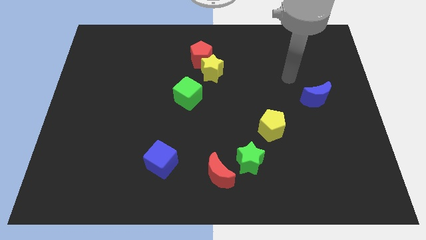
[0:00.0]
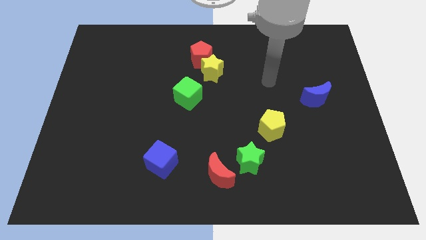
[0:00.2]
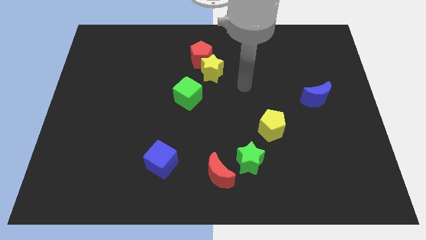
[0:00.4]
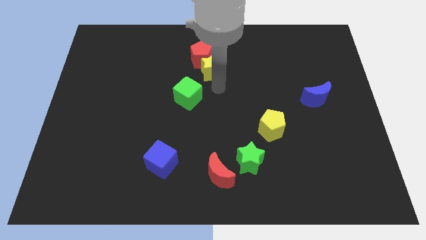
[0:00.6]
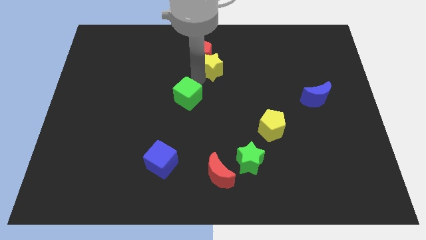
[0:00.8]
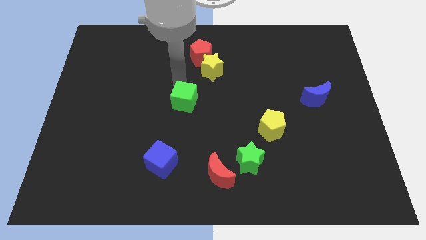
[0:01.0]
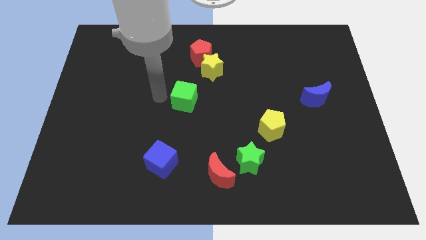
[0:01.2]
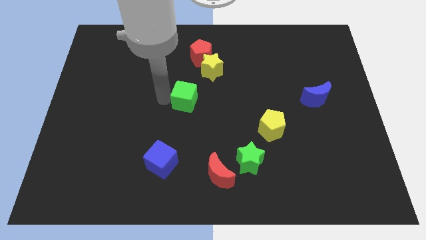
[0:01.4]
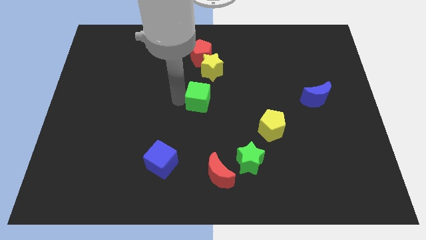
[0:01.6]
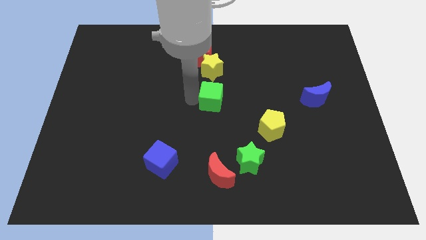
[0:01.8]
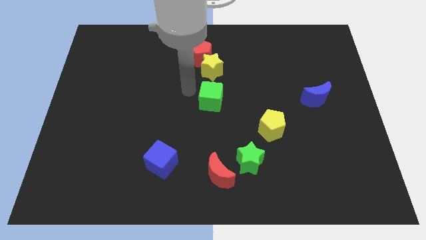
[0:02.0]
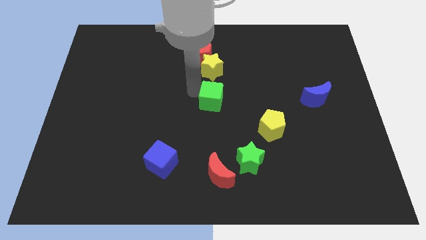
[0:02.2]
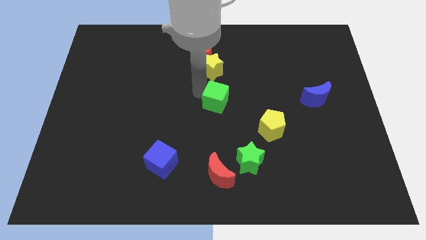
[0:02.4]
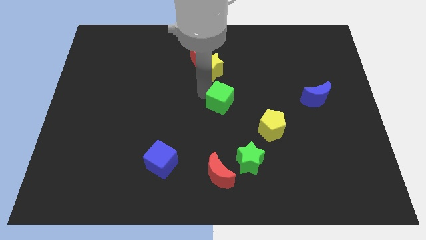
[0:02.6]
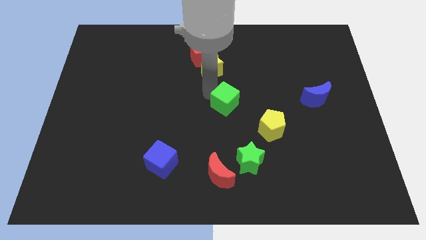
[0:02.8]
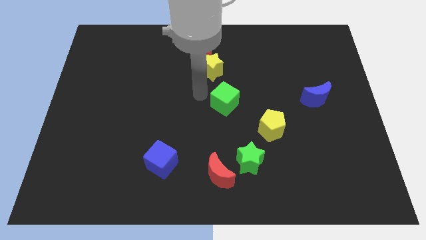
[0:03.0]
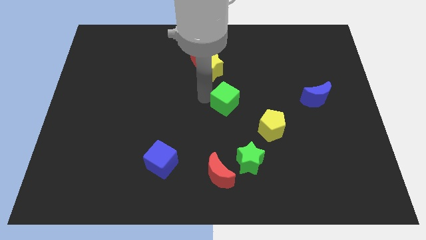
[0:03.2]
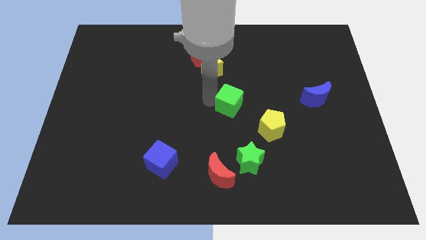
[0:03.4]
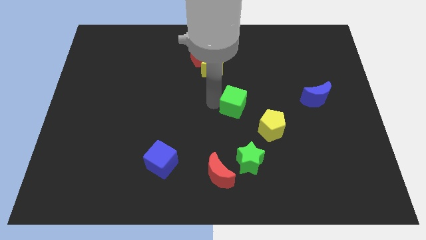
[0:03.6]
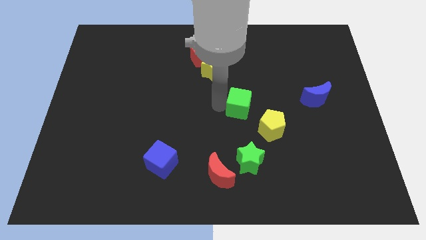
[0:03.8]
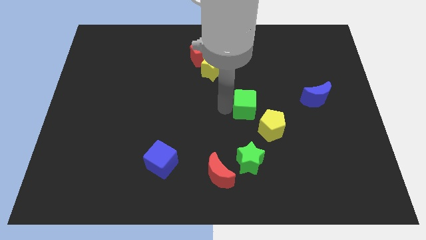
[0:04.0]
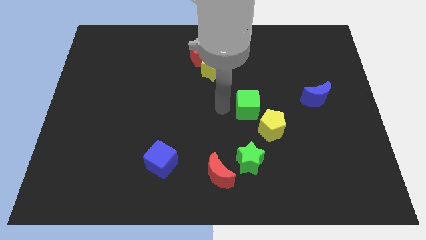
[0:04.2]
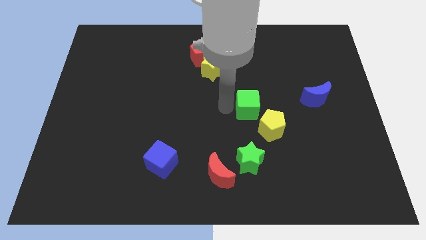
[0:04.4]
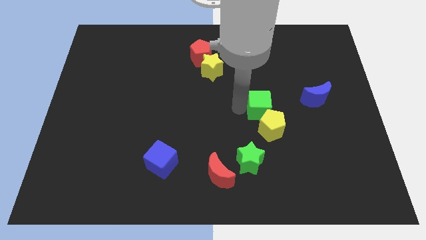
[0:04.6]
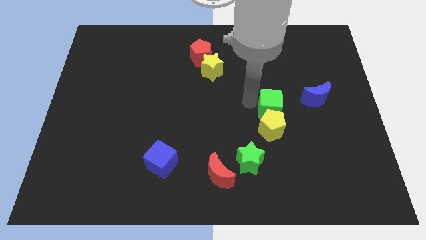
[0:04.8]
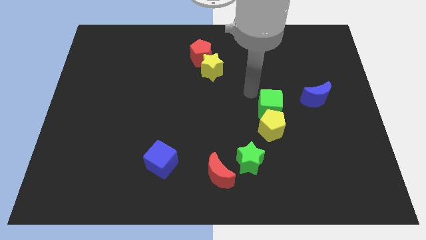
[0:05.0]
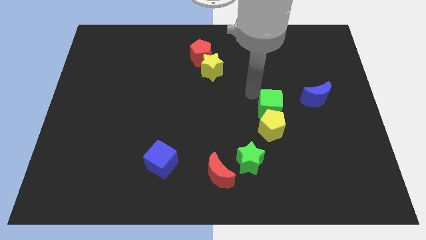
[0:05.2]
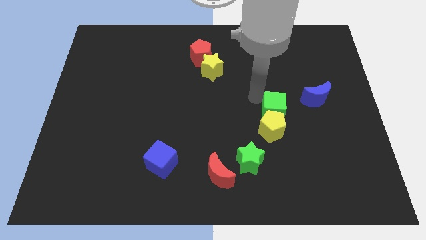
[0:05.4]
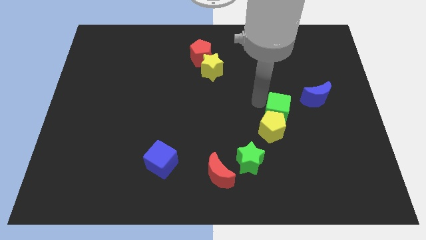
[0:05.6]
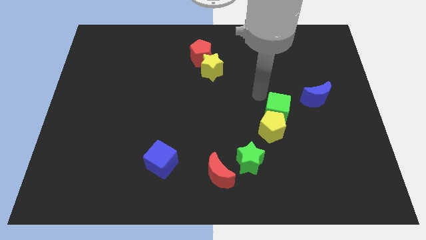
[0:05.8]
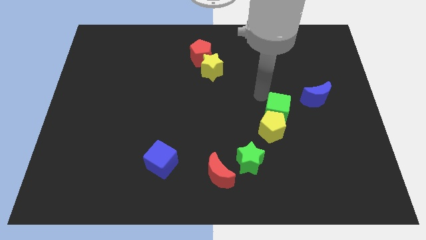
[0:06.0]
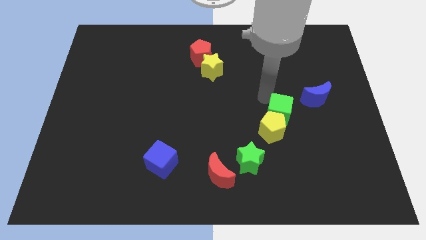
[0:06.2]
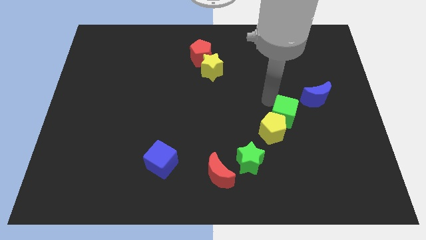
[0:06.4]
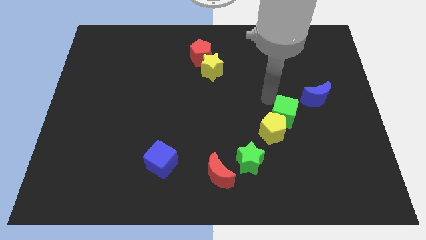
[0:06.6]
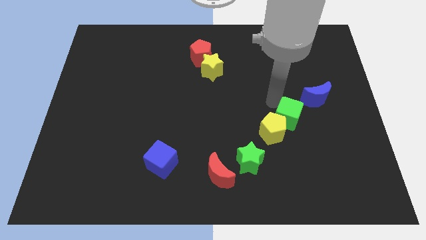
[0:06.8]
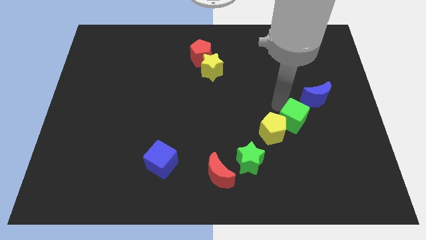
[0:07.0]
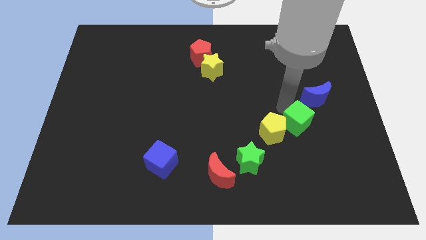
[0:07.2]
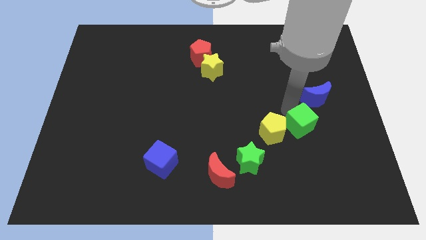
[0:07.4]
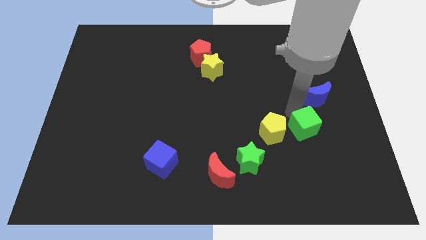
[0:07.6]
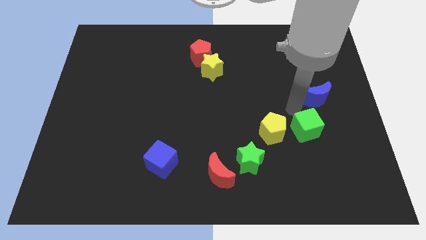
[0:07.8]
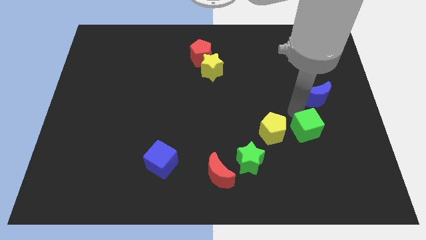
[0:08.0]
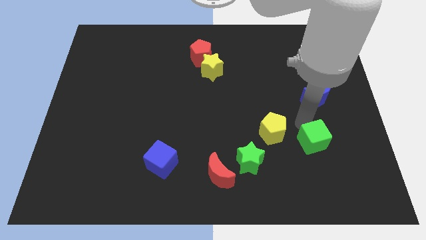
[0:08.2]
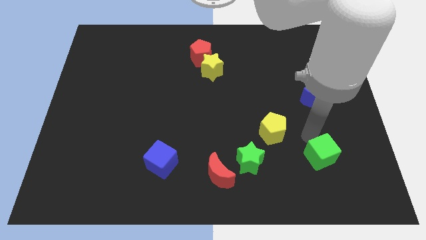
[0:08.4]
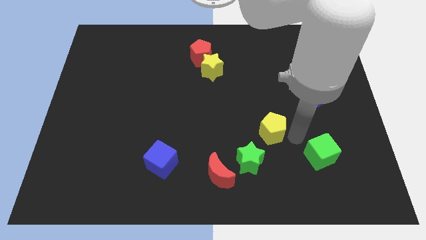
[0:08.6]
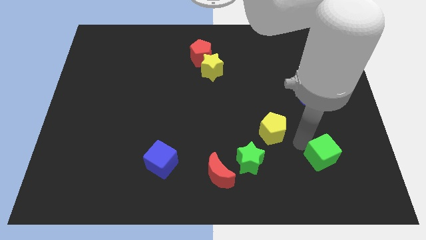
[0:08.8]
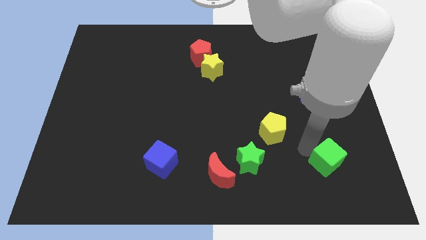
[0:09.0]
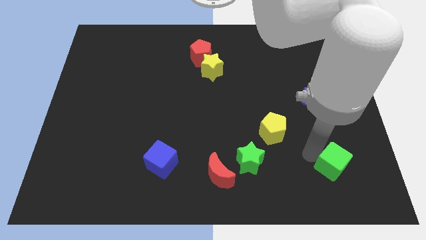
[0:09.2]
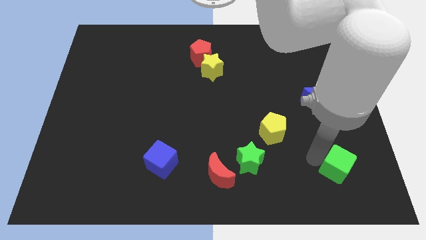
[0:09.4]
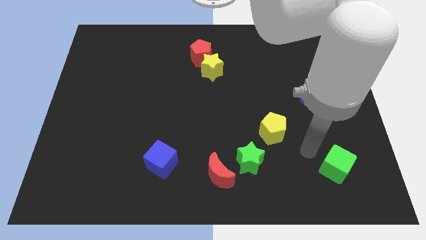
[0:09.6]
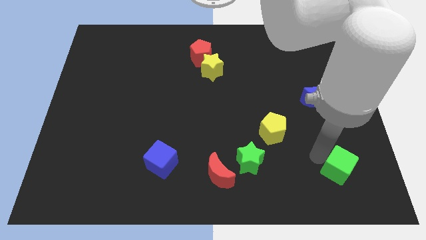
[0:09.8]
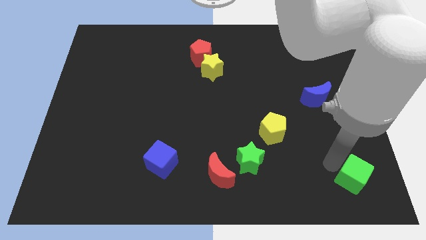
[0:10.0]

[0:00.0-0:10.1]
move the green cube to the bottom right corner

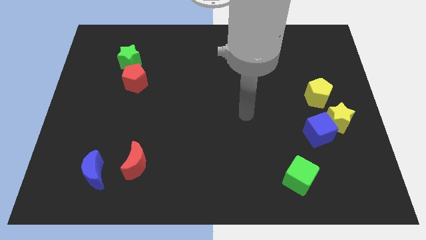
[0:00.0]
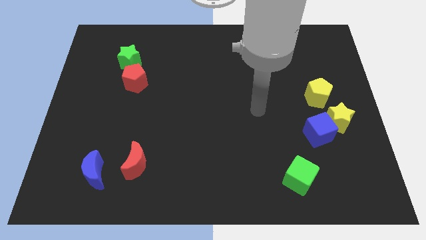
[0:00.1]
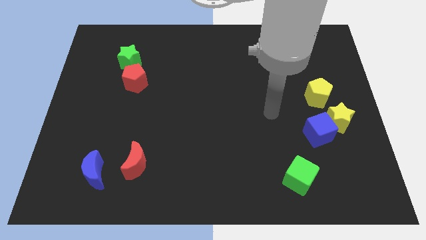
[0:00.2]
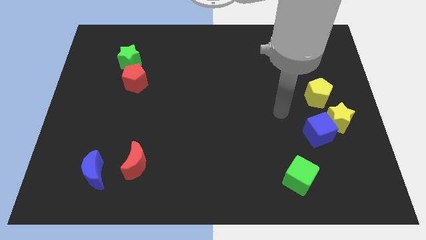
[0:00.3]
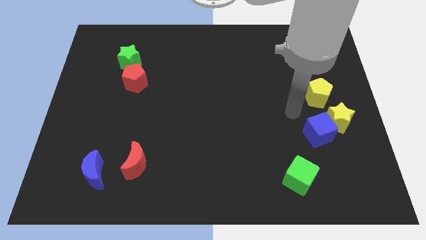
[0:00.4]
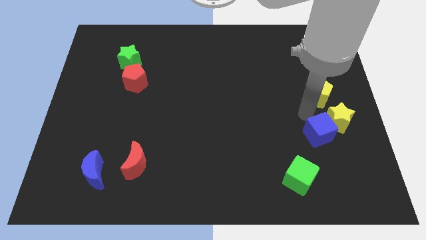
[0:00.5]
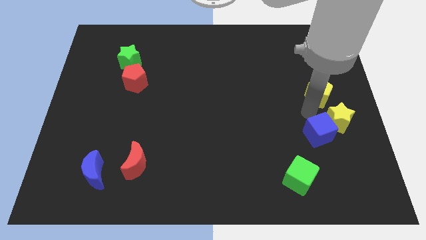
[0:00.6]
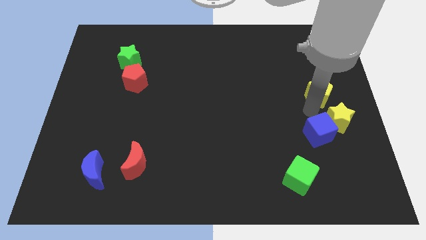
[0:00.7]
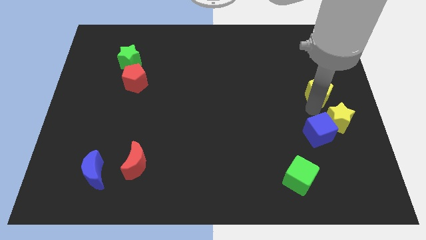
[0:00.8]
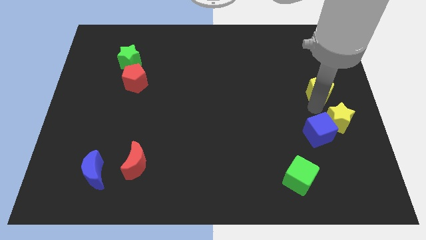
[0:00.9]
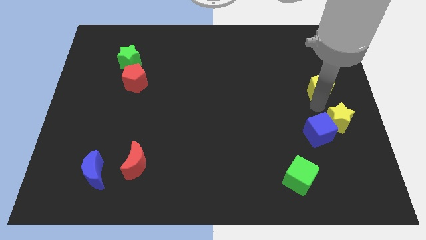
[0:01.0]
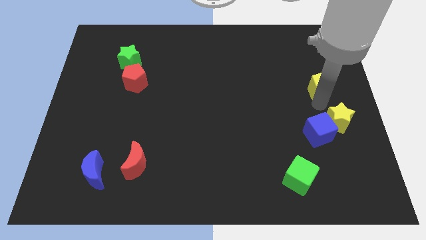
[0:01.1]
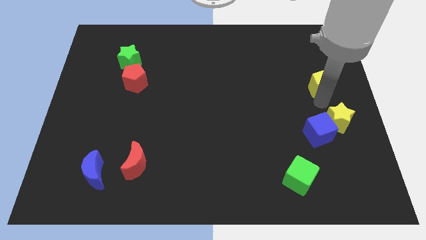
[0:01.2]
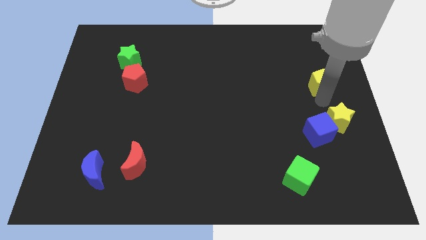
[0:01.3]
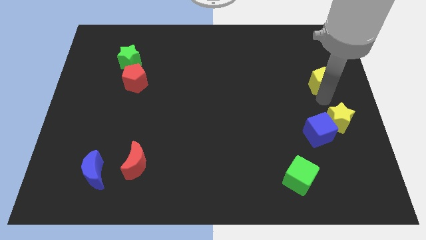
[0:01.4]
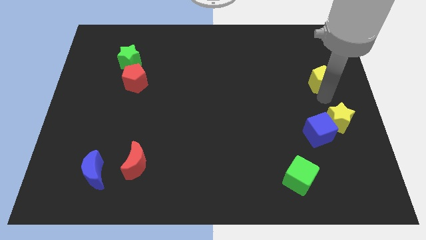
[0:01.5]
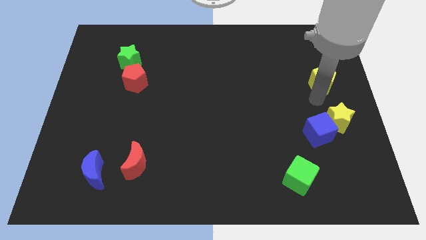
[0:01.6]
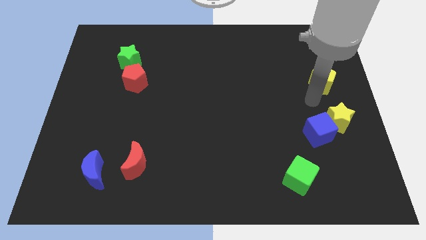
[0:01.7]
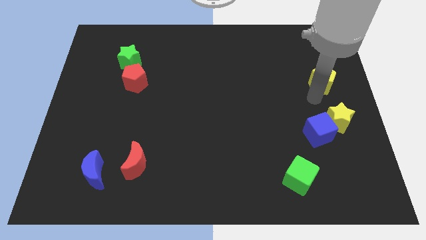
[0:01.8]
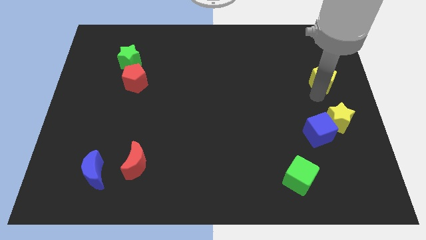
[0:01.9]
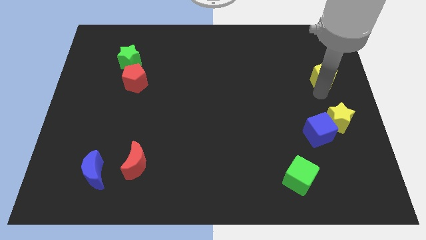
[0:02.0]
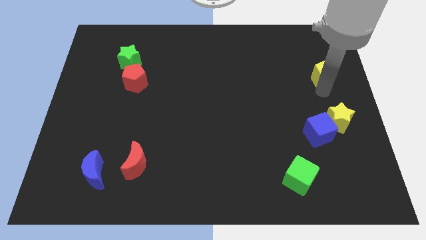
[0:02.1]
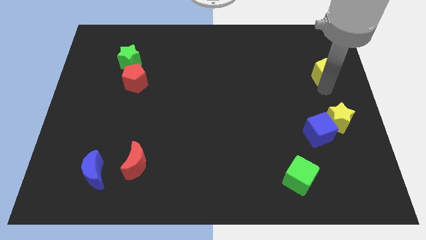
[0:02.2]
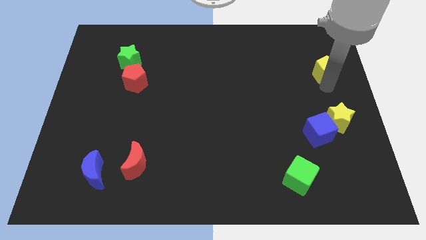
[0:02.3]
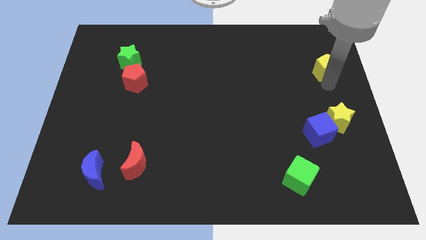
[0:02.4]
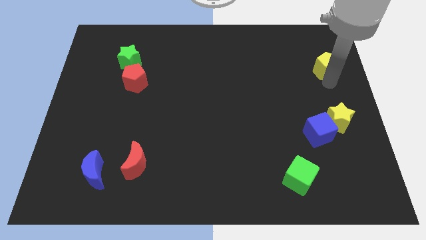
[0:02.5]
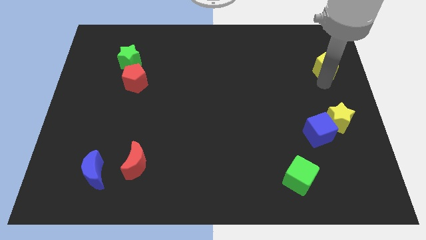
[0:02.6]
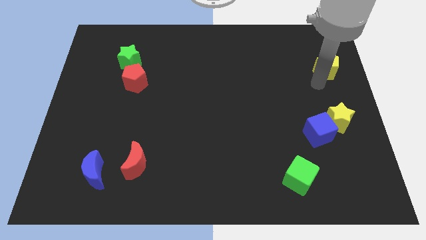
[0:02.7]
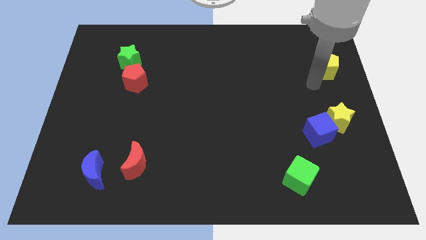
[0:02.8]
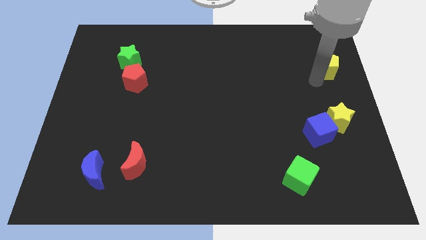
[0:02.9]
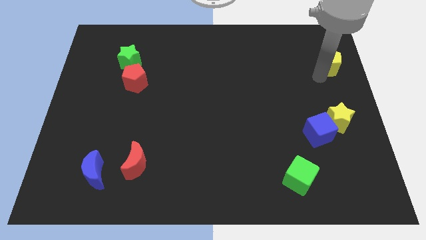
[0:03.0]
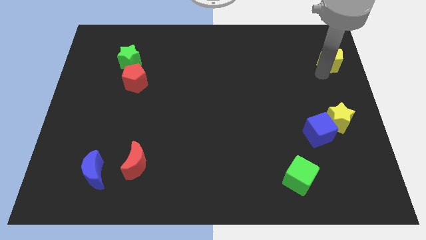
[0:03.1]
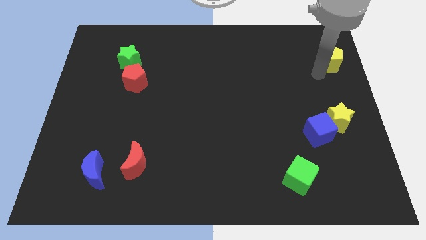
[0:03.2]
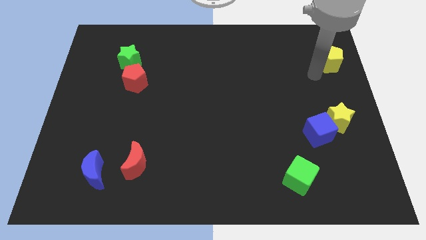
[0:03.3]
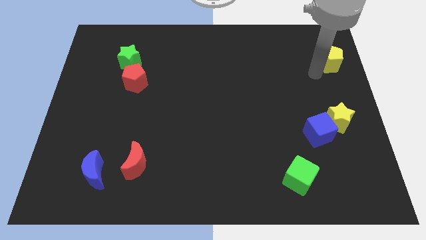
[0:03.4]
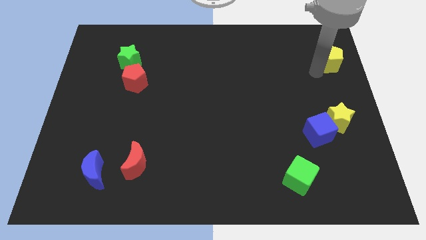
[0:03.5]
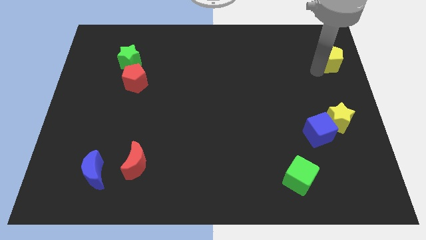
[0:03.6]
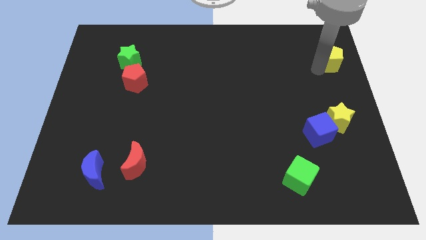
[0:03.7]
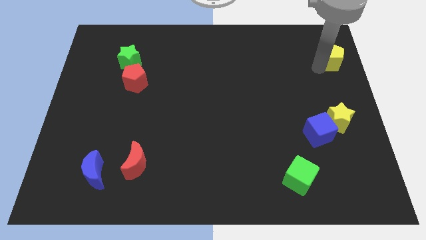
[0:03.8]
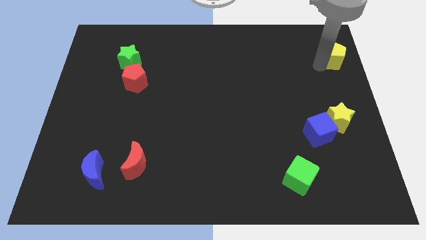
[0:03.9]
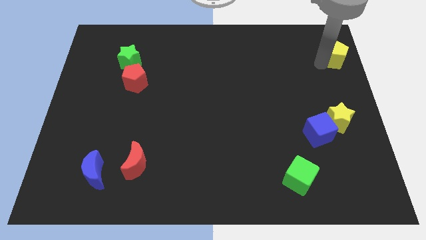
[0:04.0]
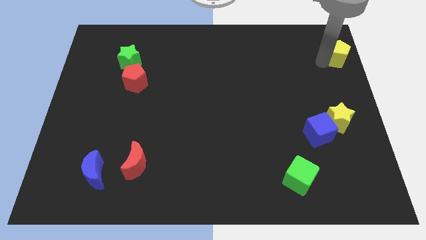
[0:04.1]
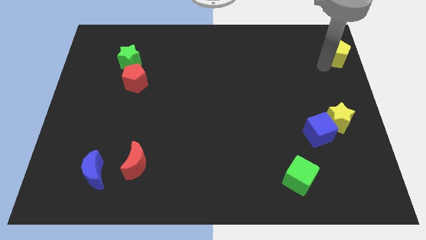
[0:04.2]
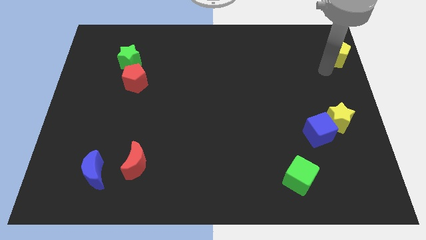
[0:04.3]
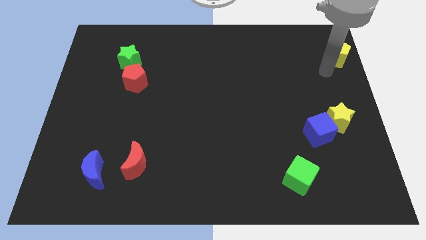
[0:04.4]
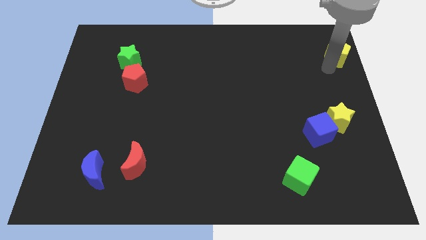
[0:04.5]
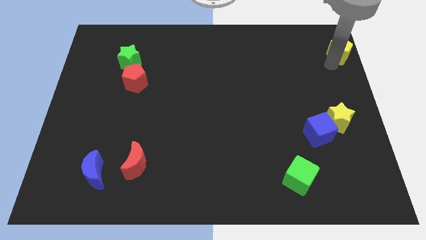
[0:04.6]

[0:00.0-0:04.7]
push the yellow pentagon to the top right of the board
